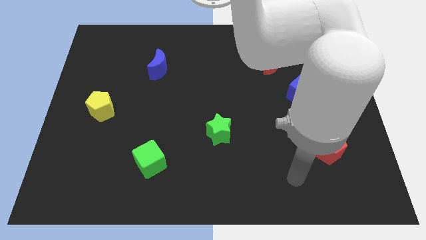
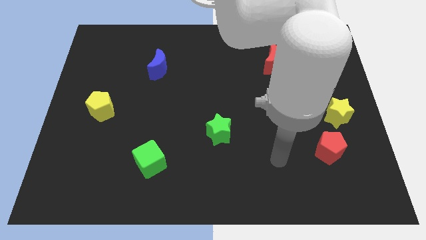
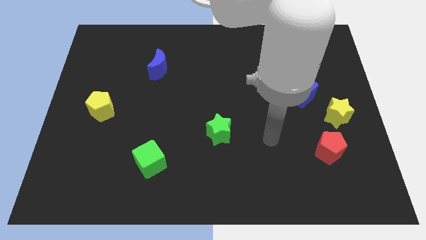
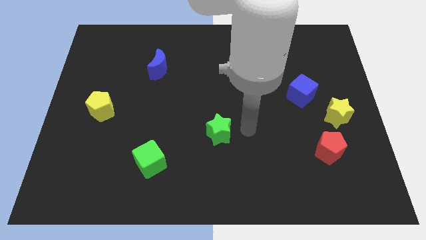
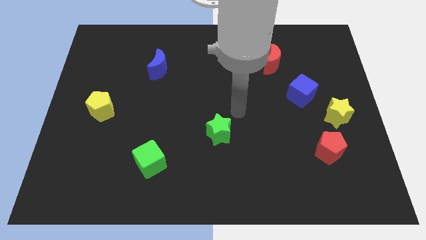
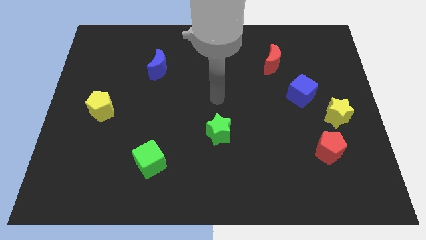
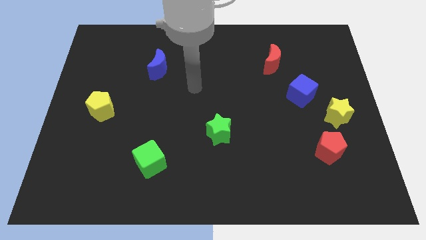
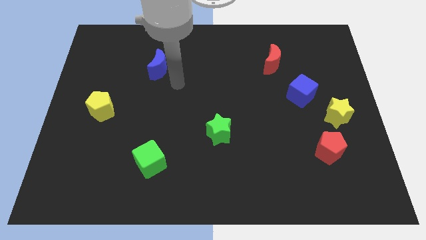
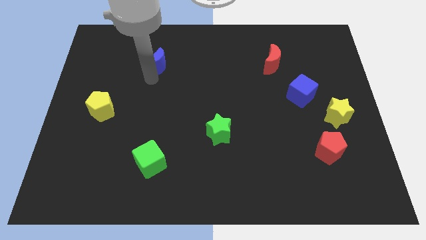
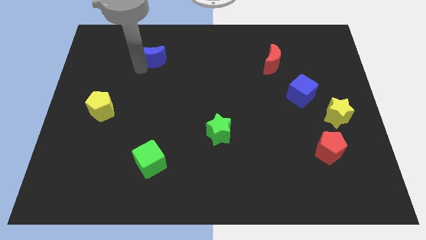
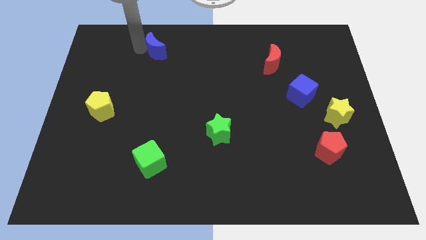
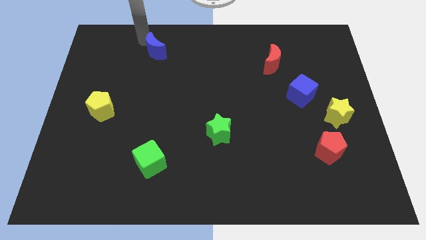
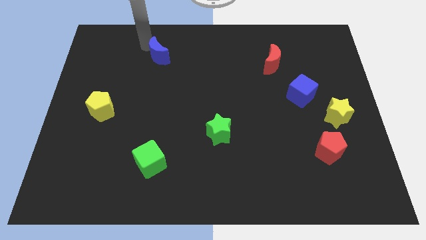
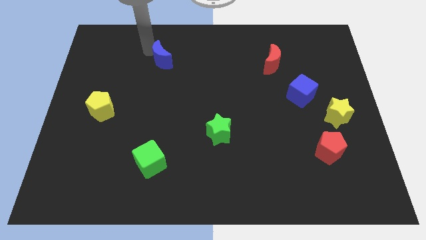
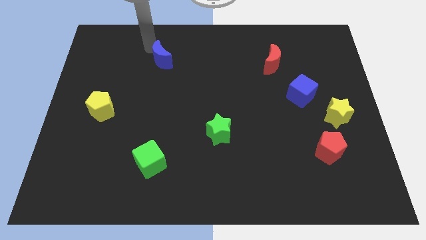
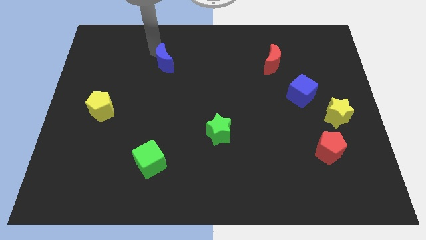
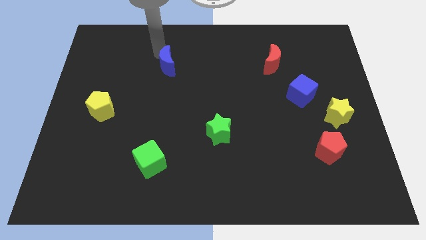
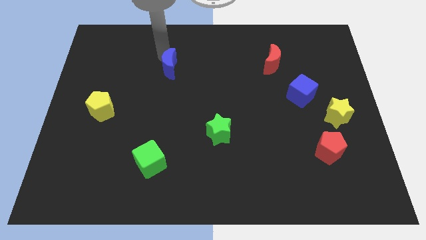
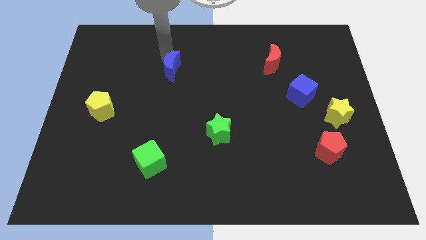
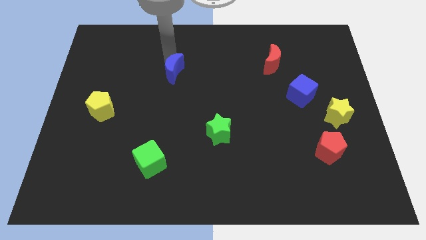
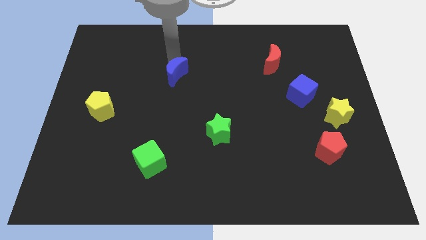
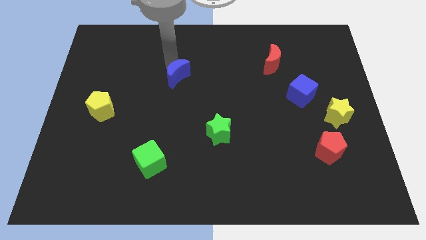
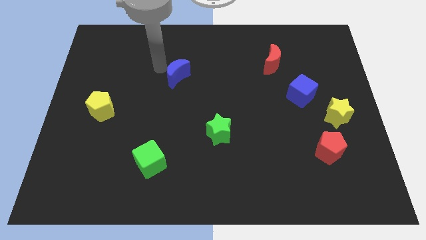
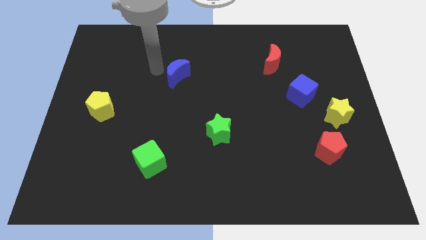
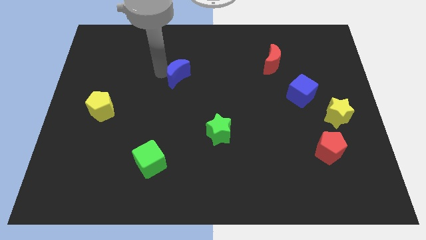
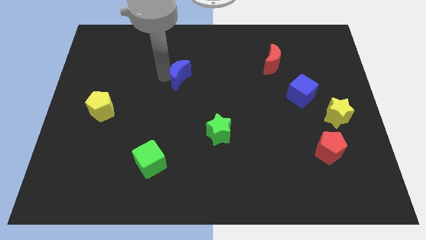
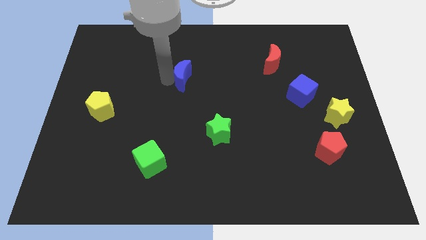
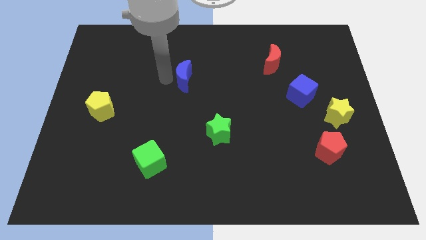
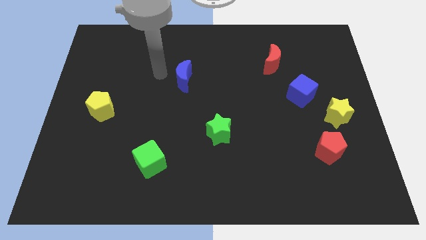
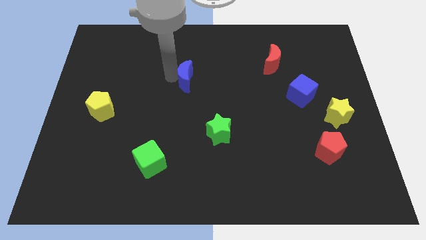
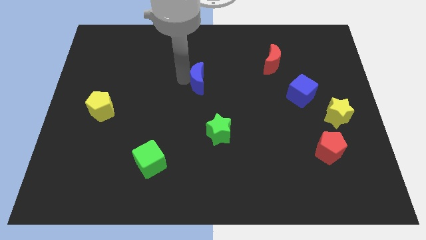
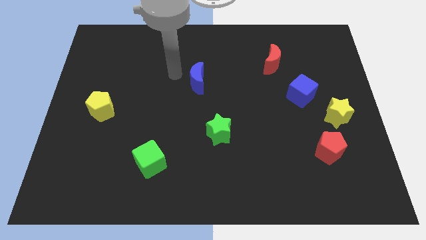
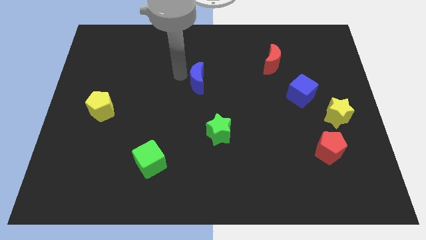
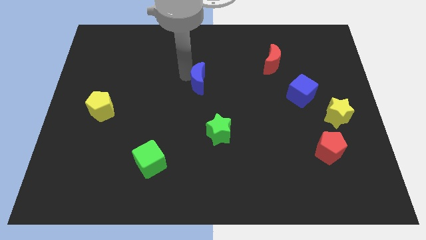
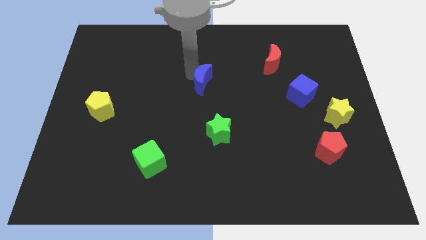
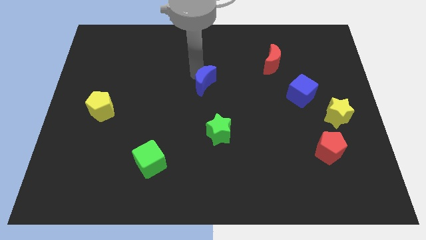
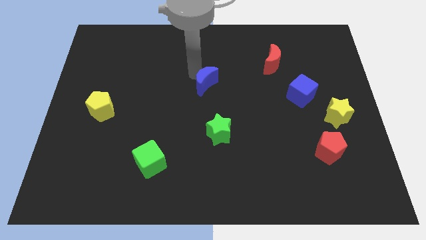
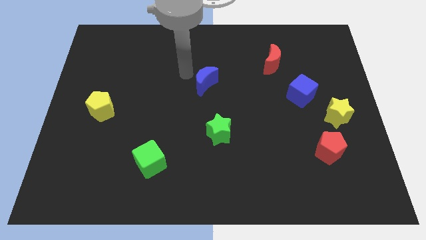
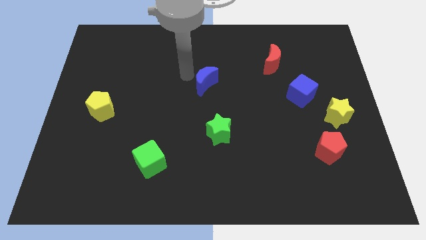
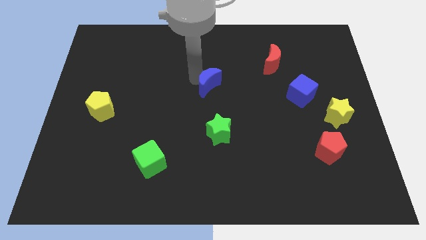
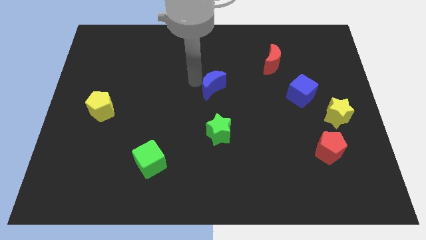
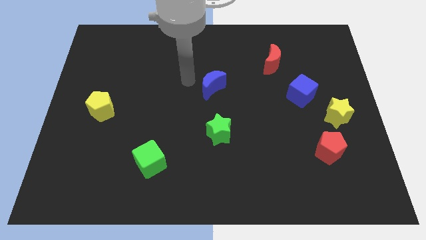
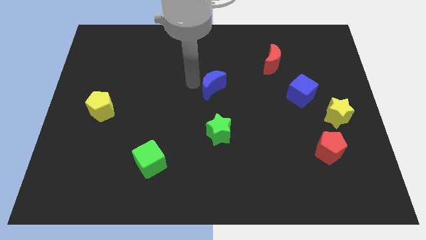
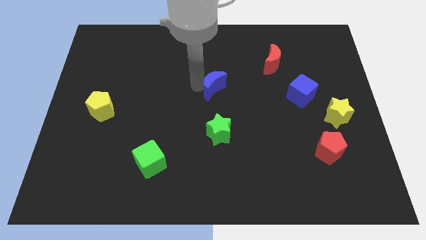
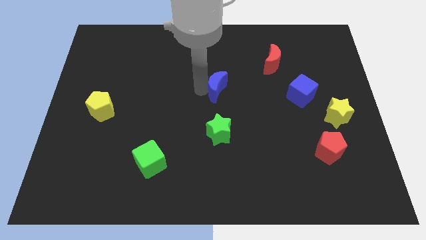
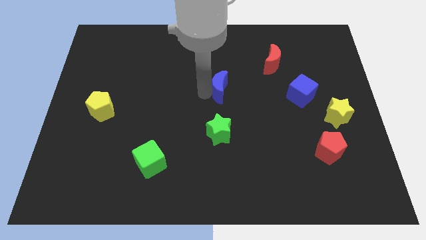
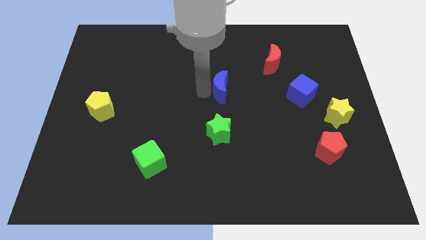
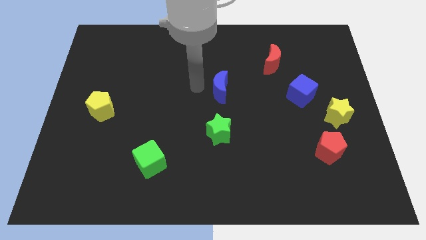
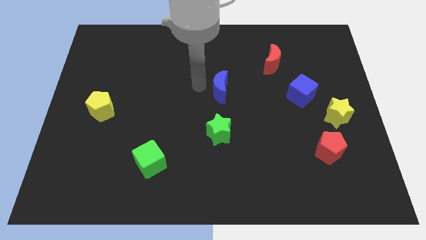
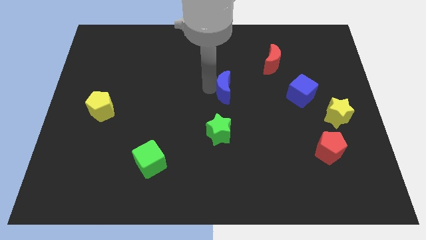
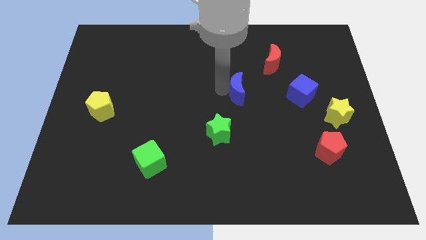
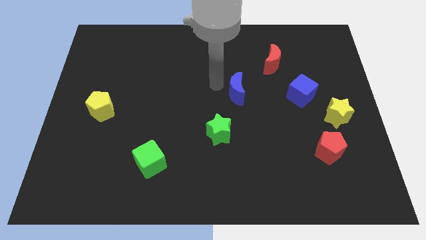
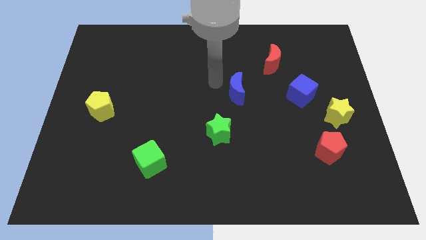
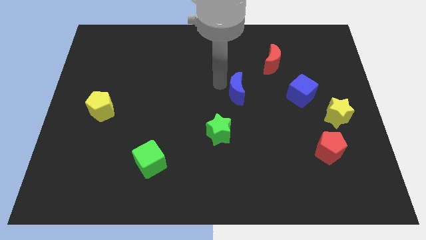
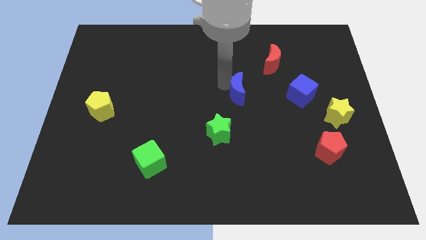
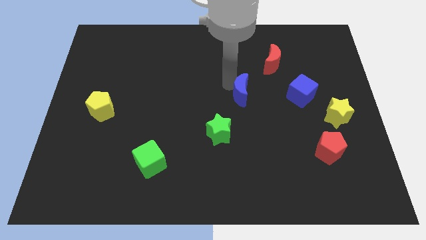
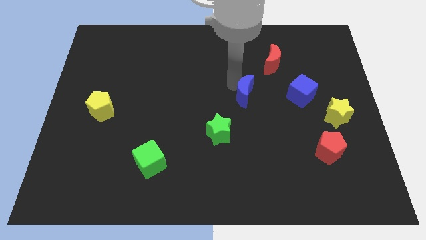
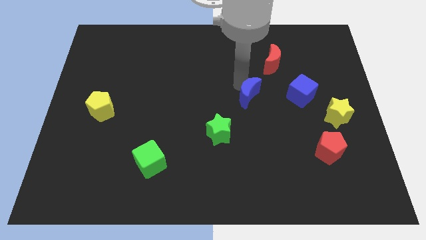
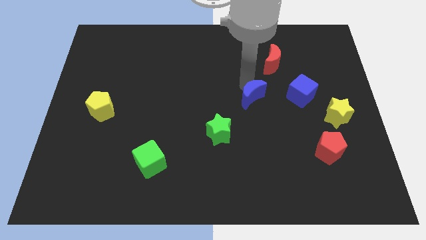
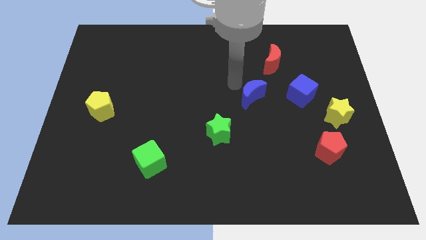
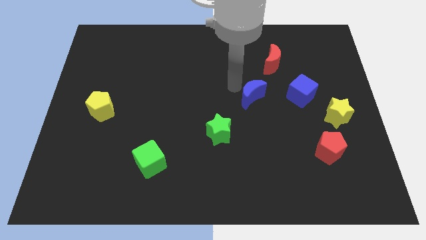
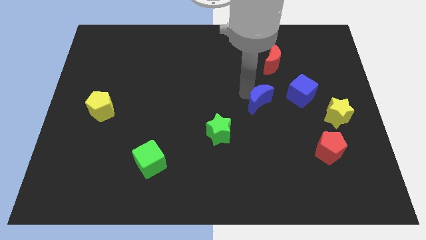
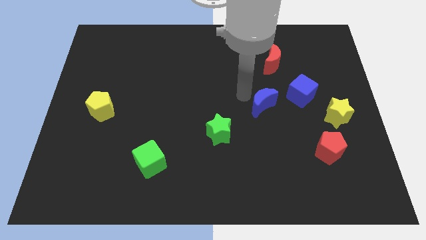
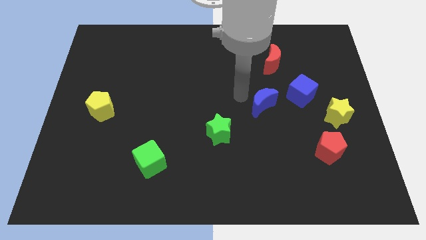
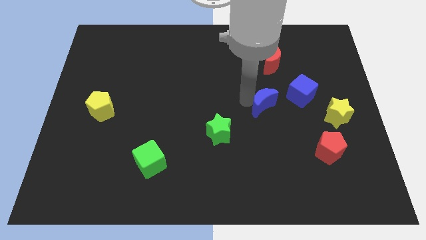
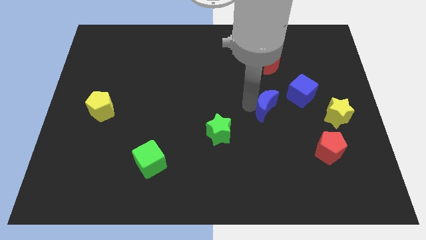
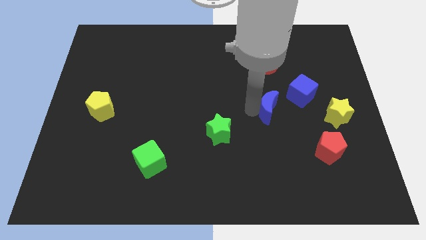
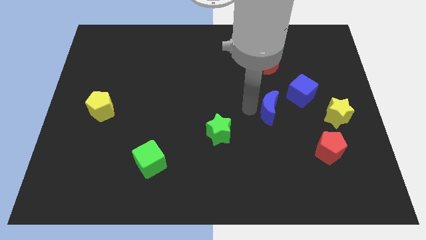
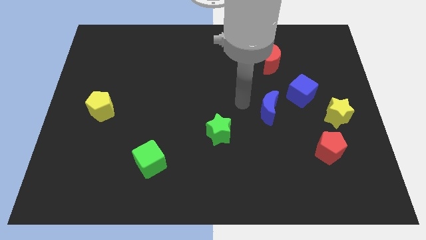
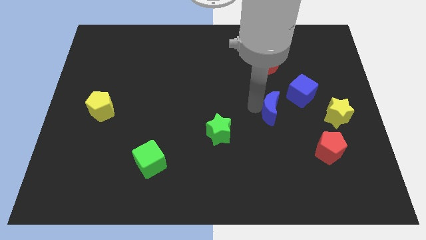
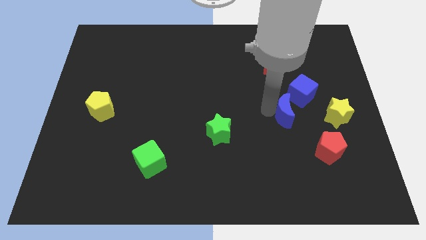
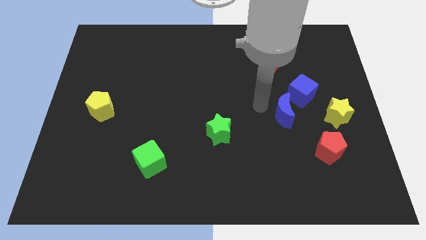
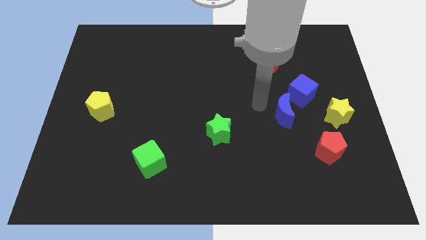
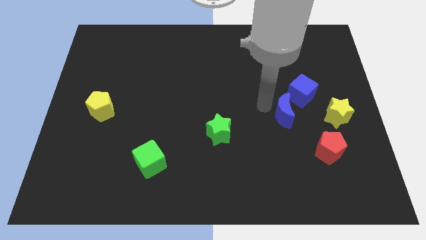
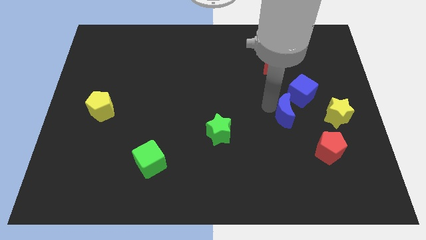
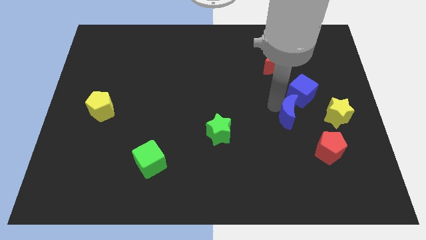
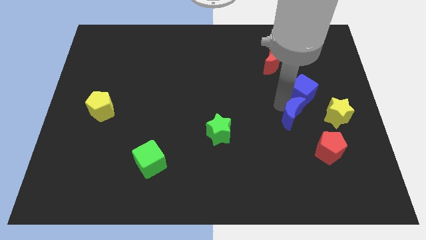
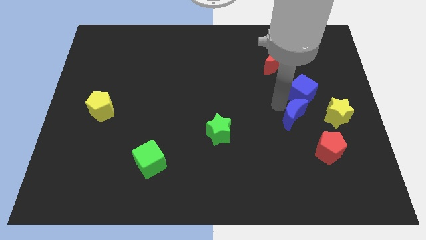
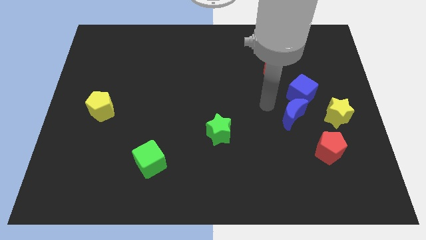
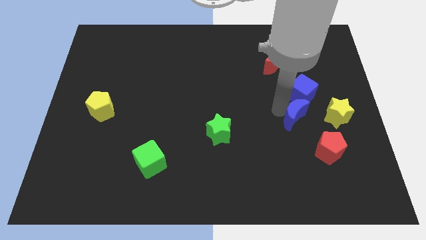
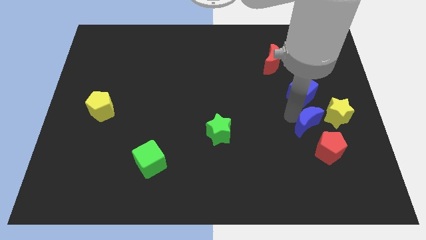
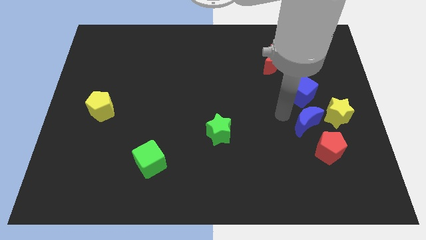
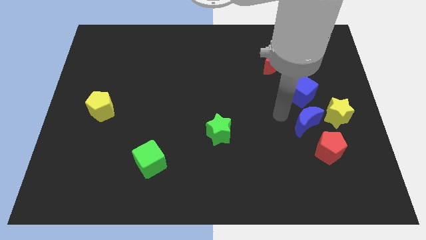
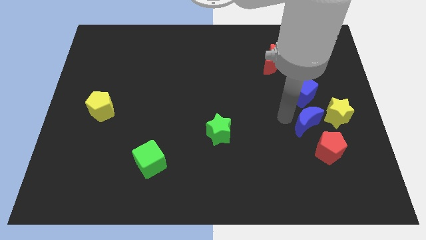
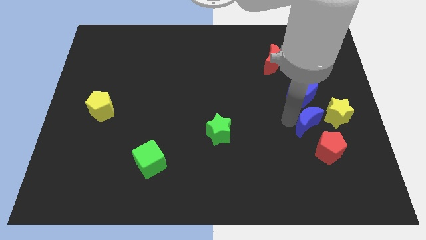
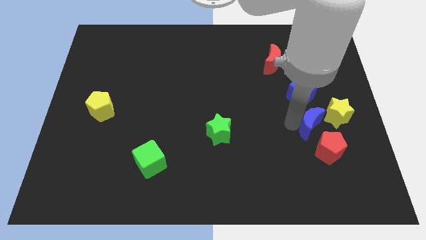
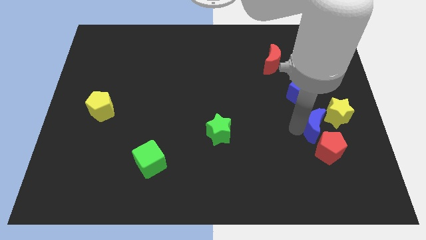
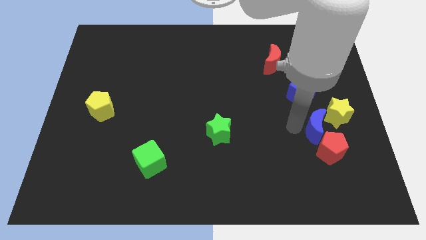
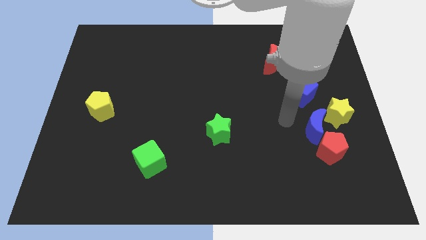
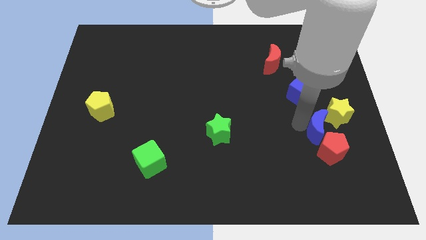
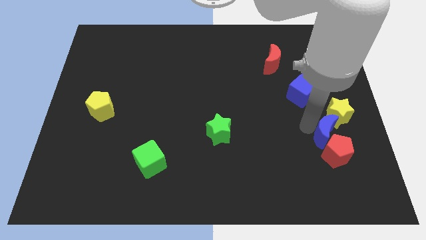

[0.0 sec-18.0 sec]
move the blue moon below the yellow star
